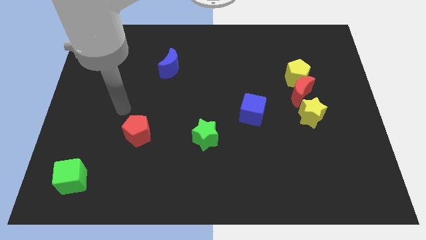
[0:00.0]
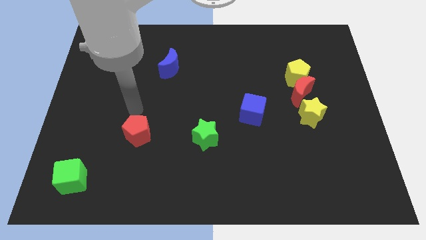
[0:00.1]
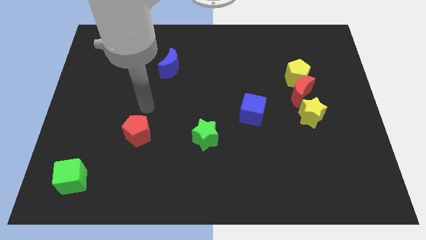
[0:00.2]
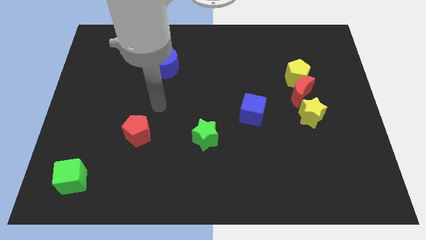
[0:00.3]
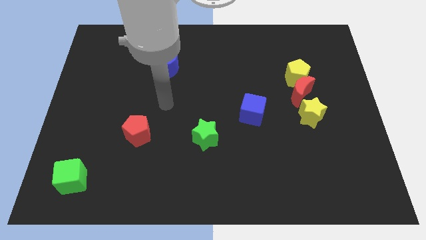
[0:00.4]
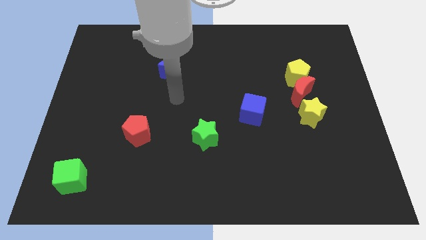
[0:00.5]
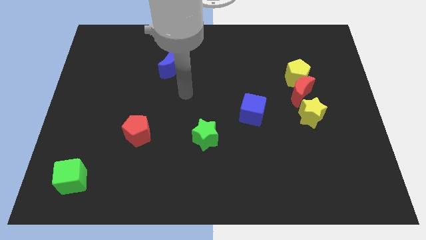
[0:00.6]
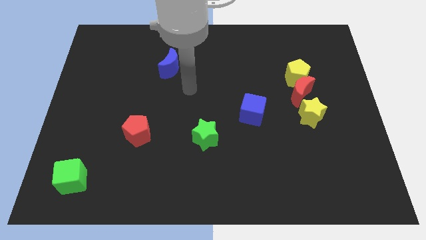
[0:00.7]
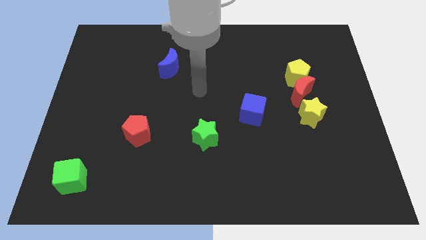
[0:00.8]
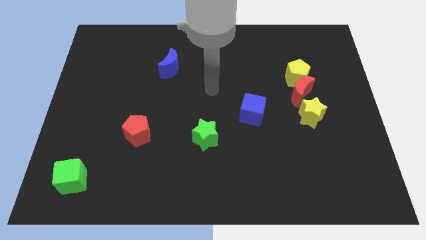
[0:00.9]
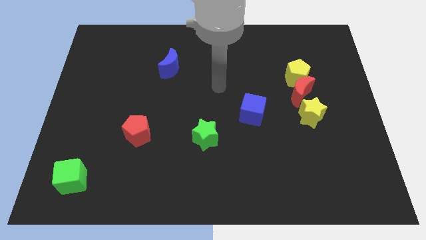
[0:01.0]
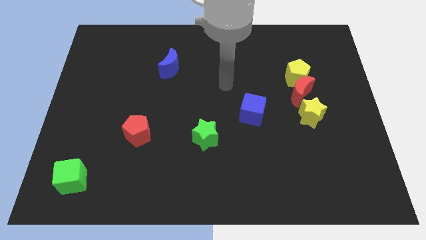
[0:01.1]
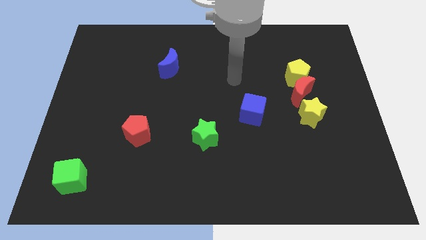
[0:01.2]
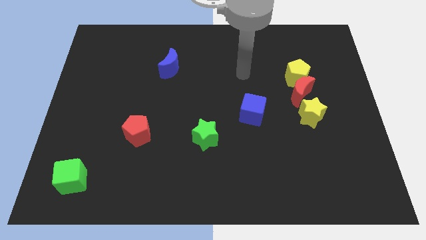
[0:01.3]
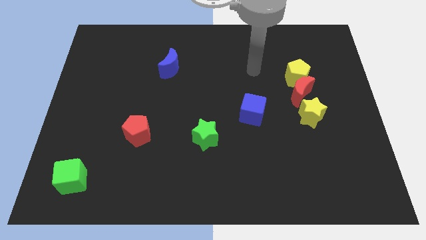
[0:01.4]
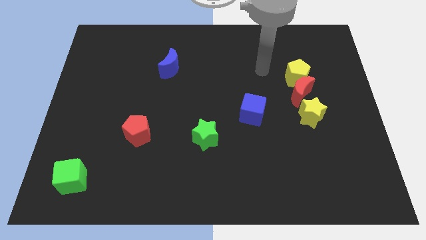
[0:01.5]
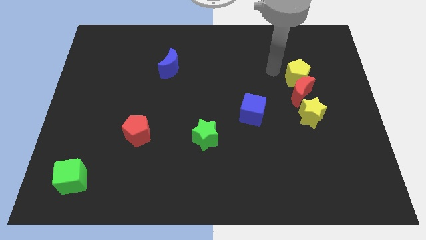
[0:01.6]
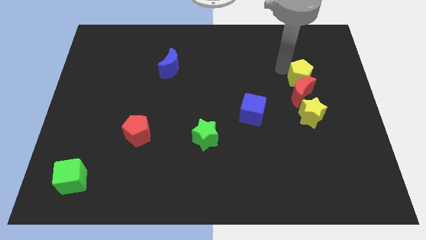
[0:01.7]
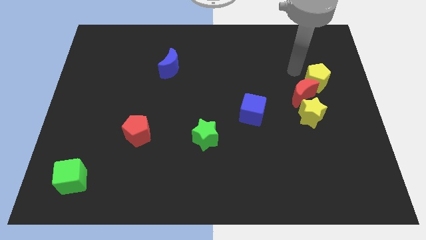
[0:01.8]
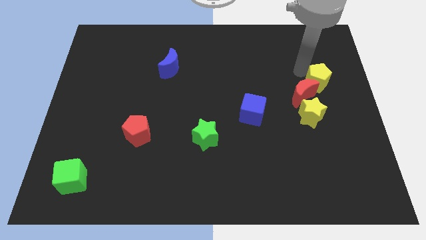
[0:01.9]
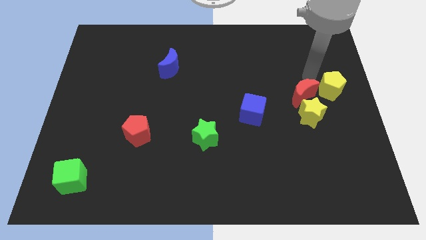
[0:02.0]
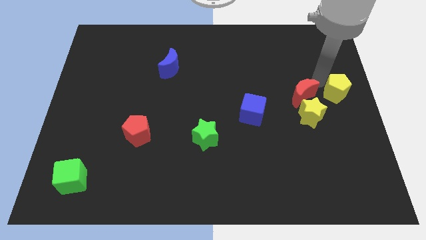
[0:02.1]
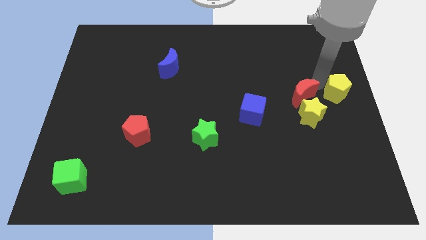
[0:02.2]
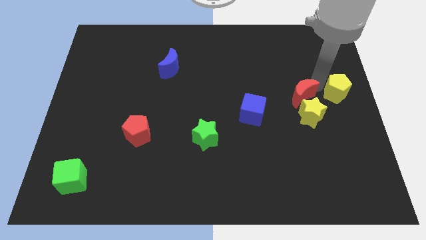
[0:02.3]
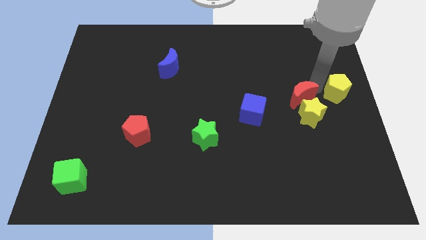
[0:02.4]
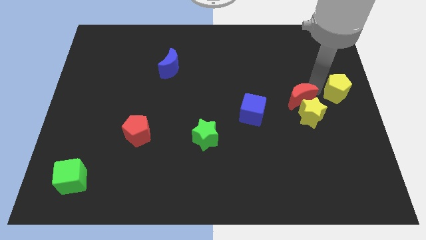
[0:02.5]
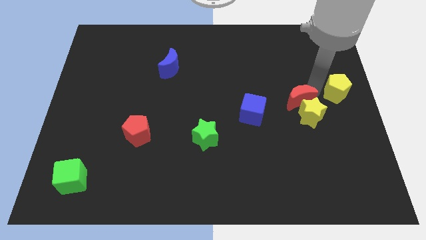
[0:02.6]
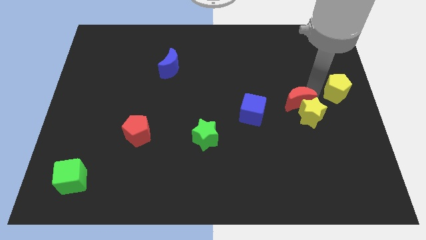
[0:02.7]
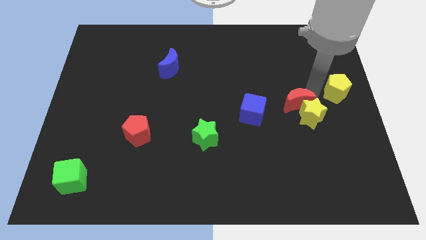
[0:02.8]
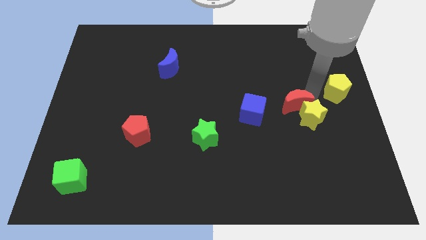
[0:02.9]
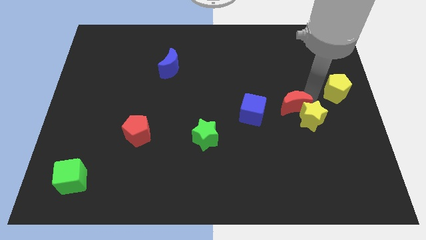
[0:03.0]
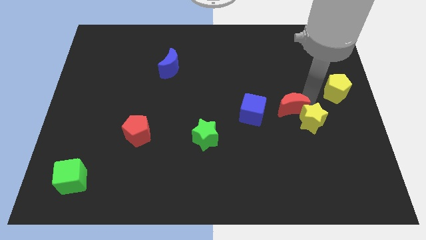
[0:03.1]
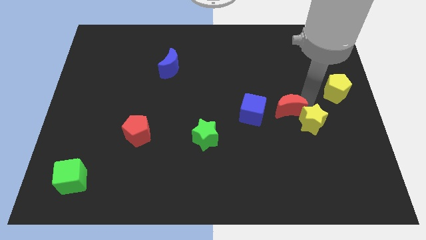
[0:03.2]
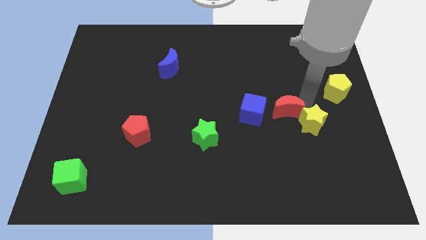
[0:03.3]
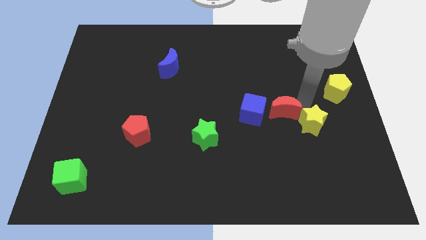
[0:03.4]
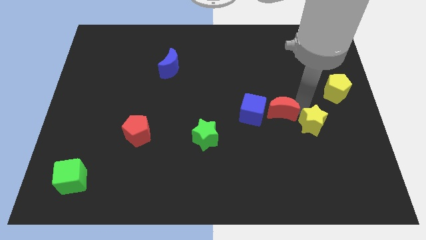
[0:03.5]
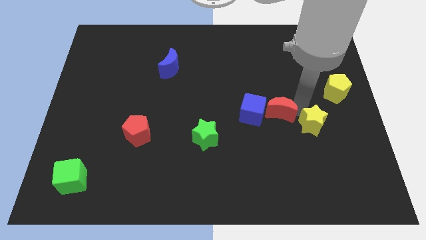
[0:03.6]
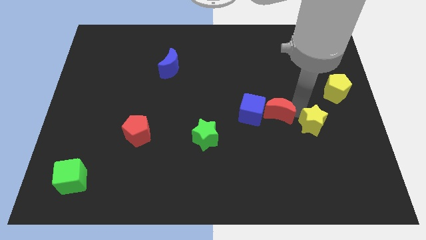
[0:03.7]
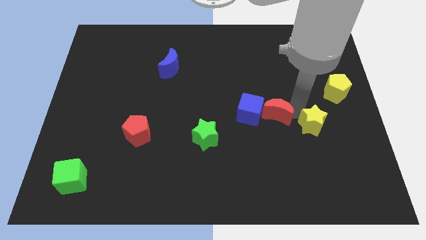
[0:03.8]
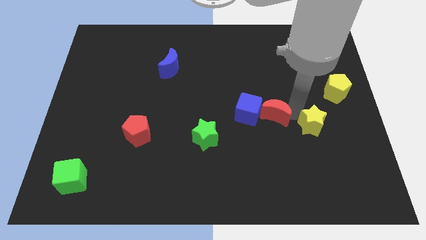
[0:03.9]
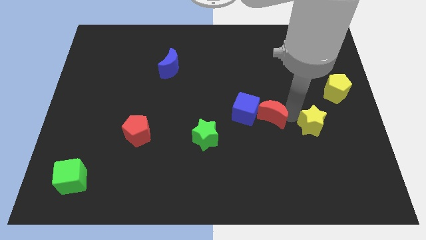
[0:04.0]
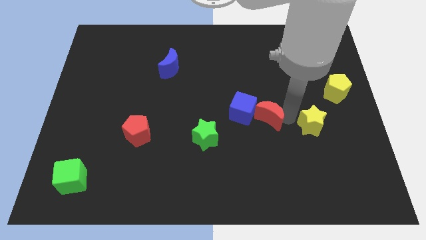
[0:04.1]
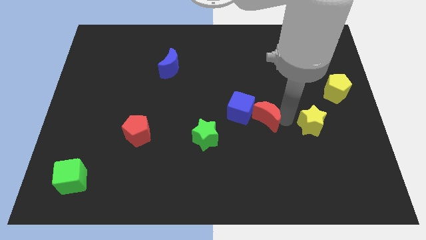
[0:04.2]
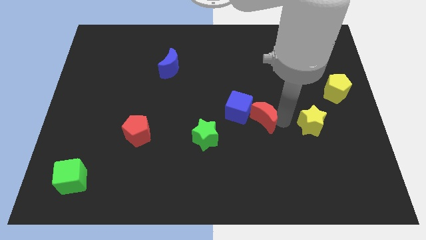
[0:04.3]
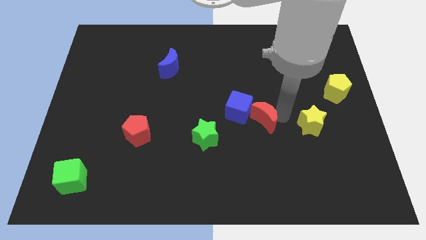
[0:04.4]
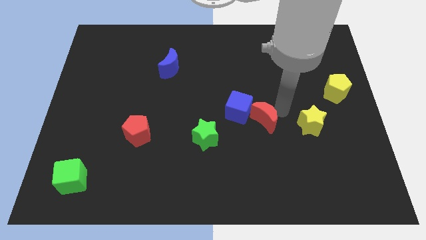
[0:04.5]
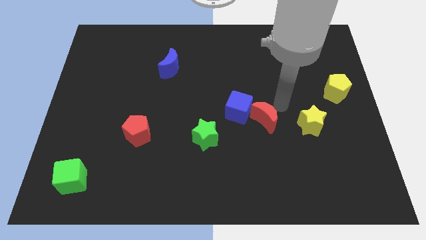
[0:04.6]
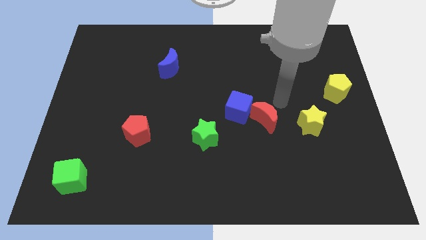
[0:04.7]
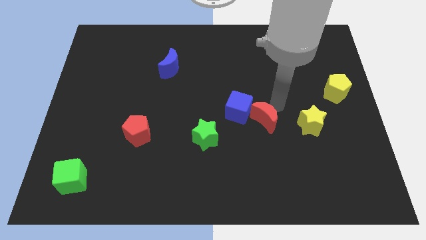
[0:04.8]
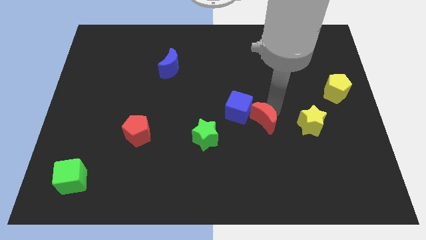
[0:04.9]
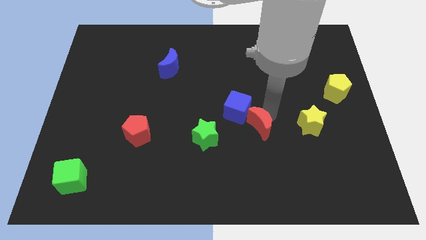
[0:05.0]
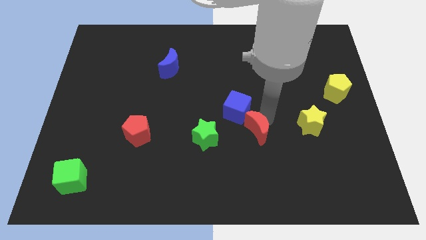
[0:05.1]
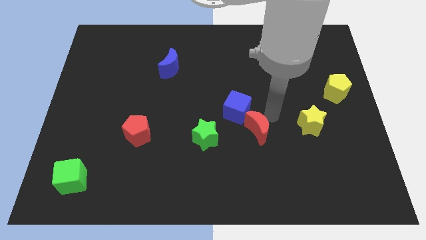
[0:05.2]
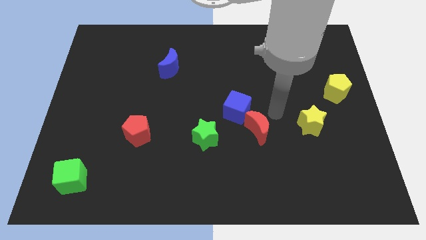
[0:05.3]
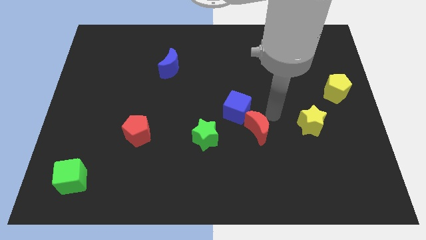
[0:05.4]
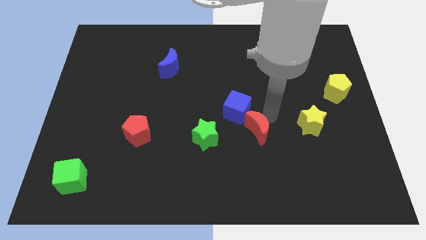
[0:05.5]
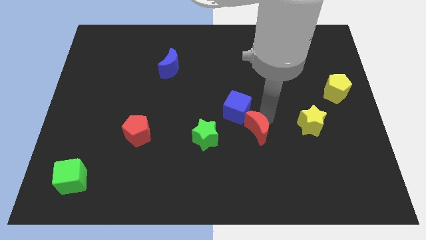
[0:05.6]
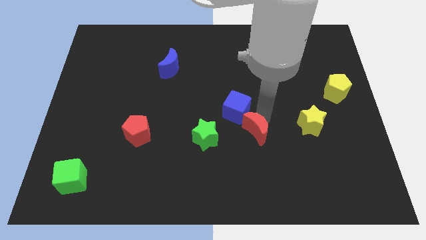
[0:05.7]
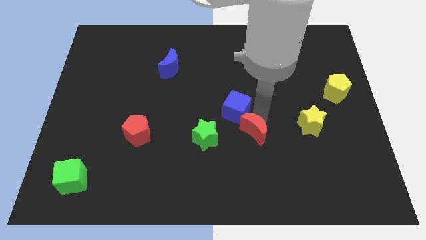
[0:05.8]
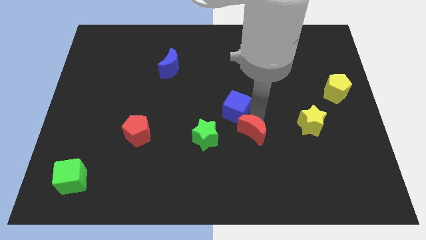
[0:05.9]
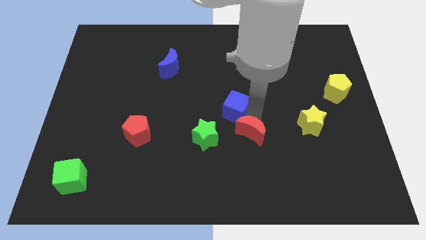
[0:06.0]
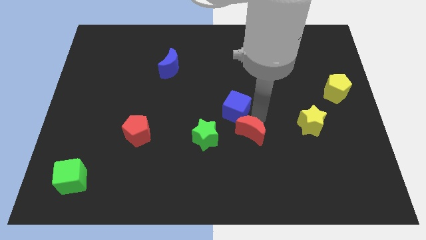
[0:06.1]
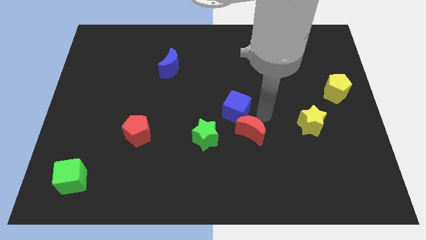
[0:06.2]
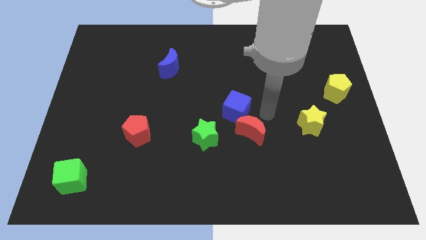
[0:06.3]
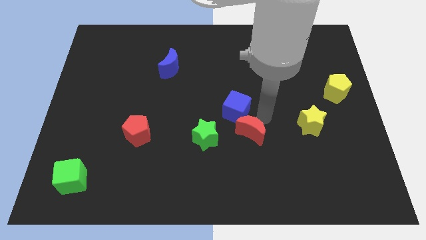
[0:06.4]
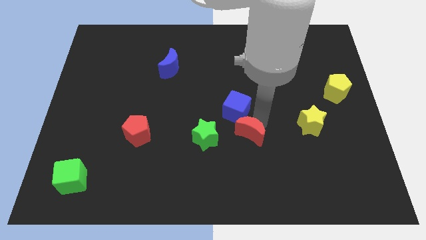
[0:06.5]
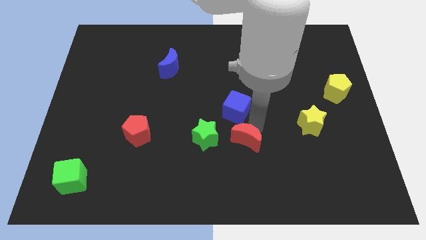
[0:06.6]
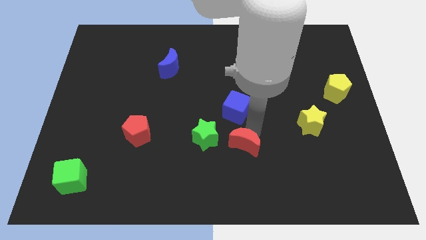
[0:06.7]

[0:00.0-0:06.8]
push the red moon diagonally down and to the left

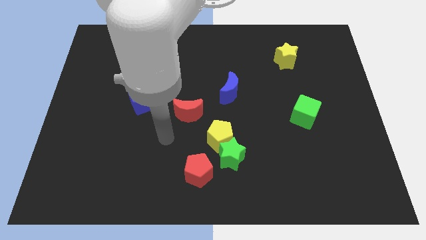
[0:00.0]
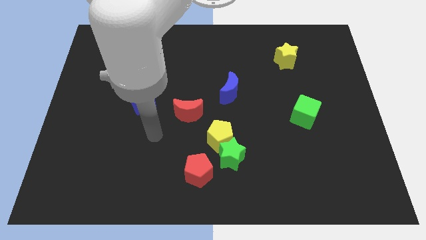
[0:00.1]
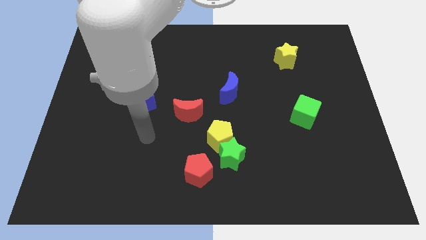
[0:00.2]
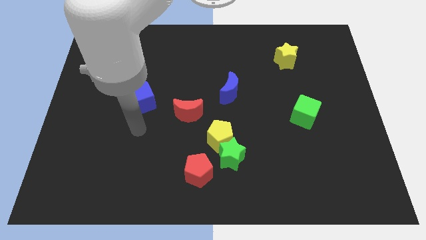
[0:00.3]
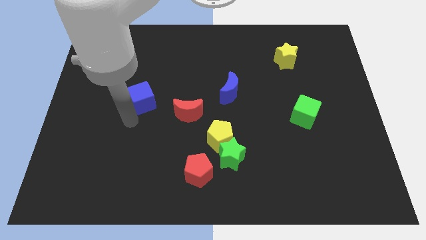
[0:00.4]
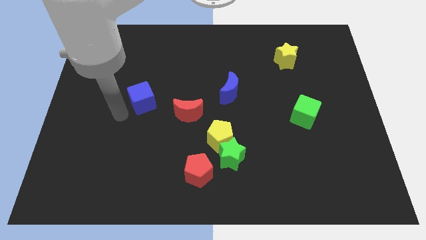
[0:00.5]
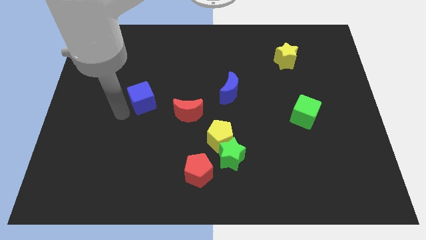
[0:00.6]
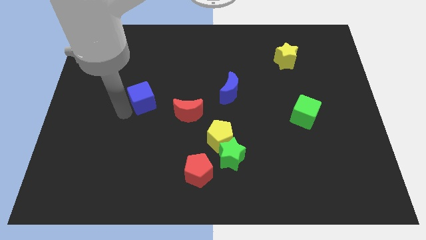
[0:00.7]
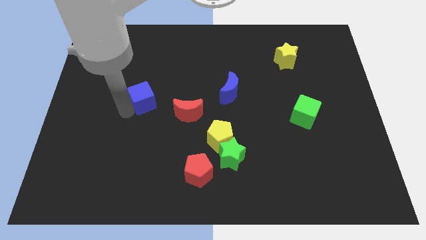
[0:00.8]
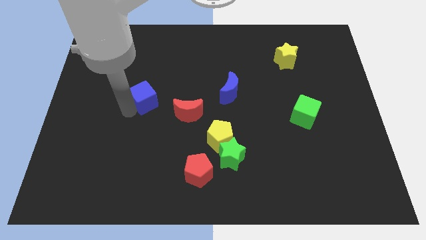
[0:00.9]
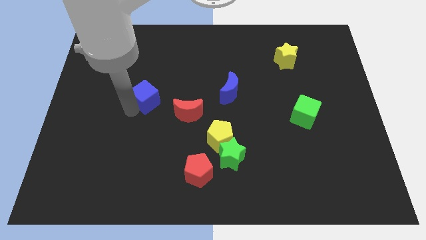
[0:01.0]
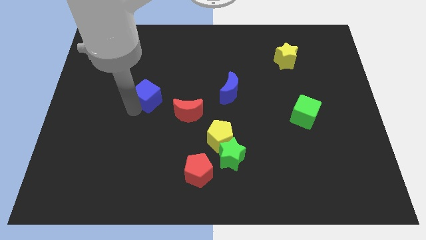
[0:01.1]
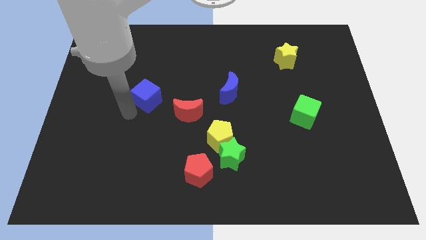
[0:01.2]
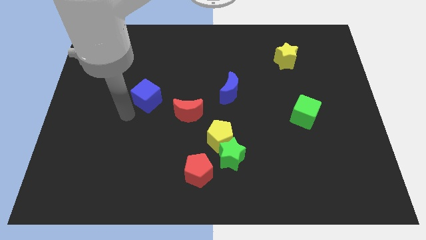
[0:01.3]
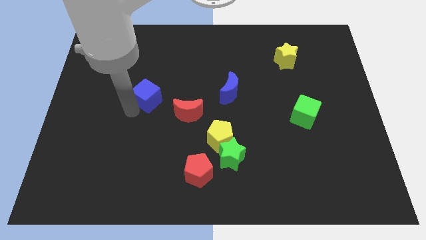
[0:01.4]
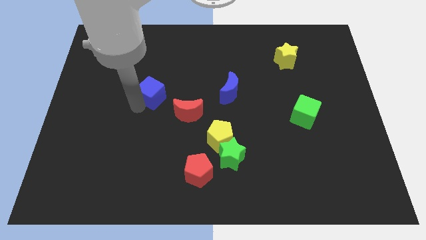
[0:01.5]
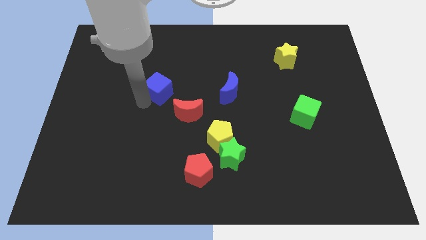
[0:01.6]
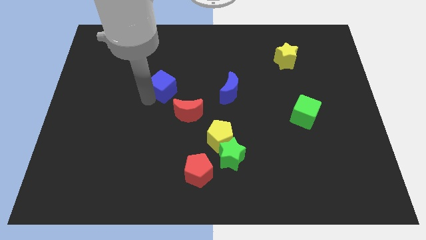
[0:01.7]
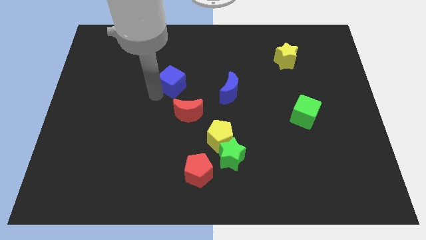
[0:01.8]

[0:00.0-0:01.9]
slightly move the blue cube upwards and then right
